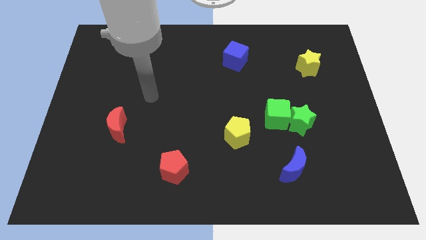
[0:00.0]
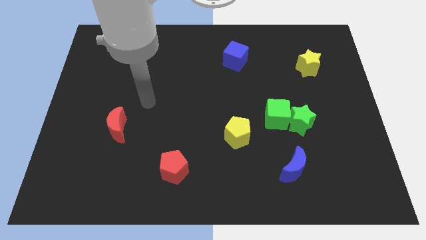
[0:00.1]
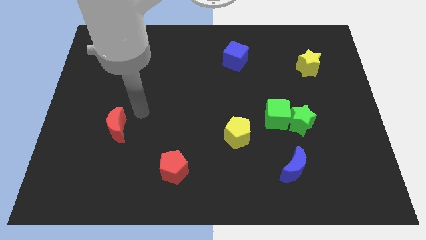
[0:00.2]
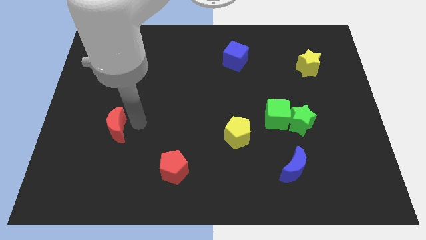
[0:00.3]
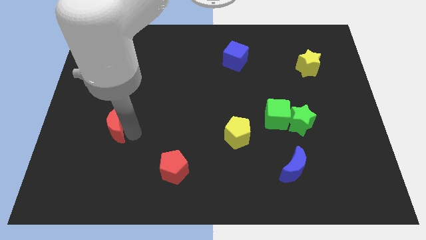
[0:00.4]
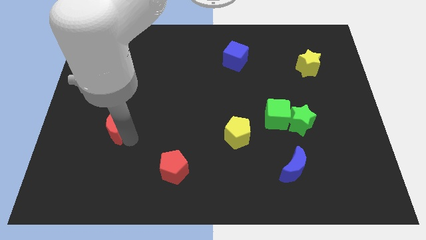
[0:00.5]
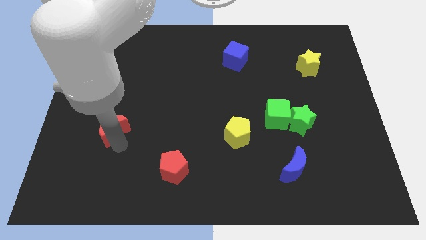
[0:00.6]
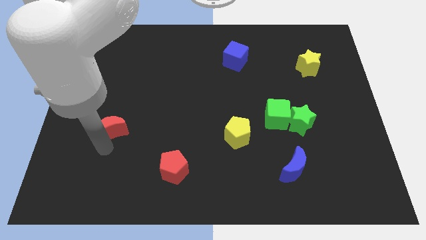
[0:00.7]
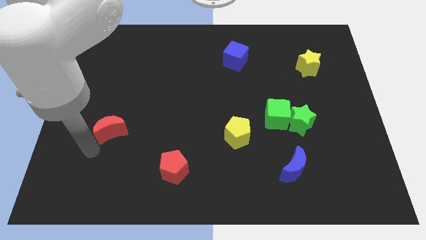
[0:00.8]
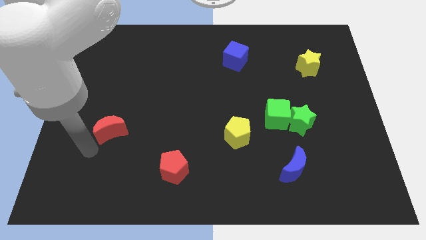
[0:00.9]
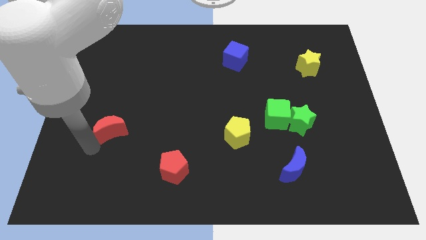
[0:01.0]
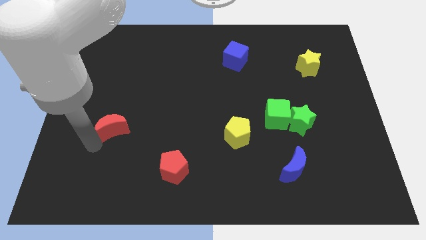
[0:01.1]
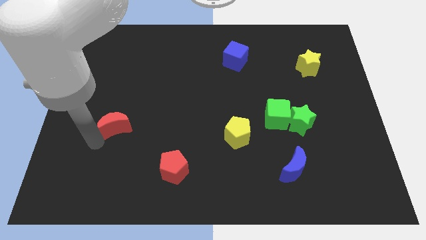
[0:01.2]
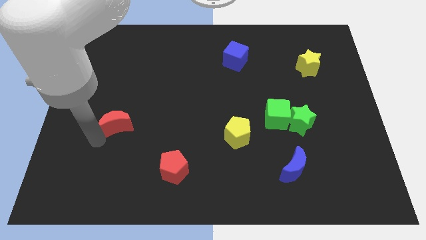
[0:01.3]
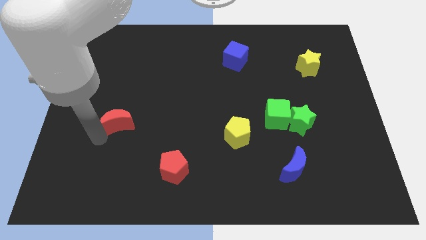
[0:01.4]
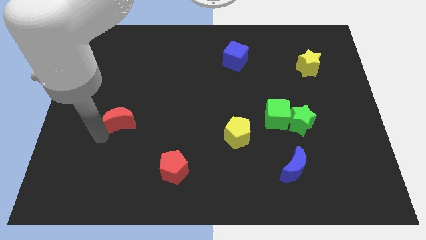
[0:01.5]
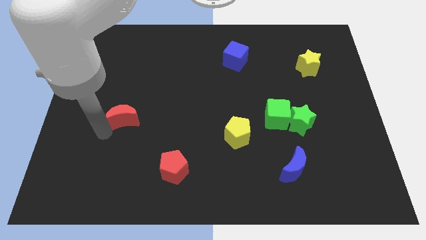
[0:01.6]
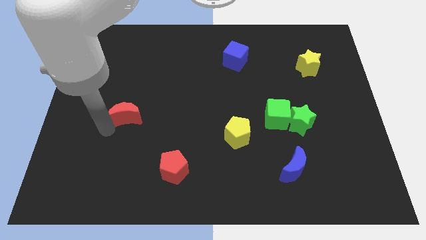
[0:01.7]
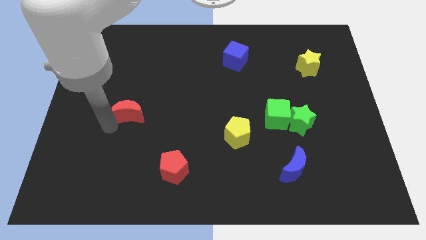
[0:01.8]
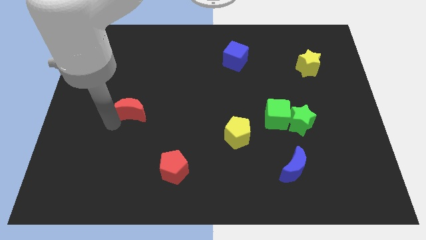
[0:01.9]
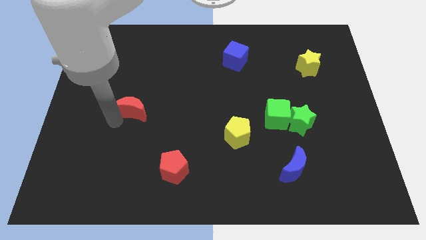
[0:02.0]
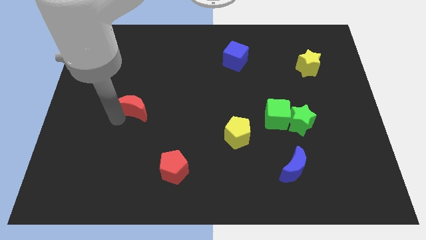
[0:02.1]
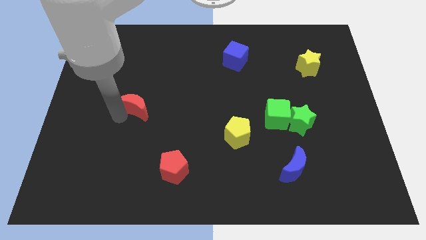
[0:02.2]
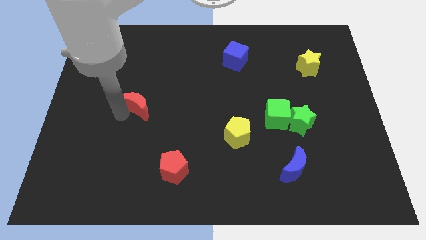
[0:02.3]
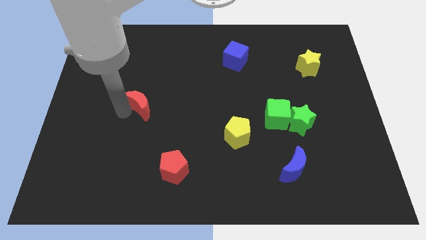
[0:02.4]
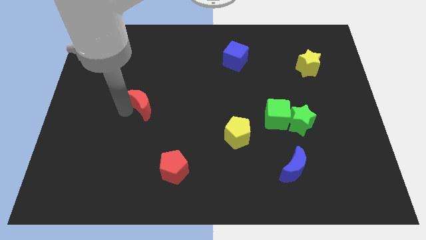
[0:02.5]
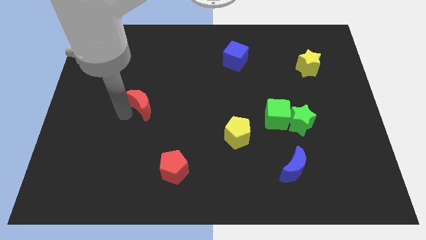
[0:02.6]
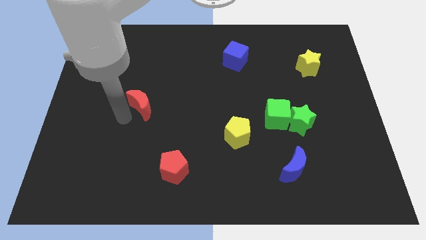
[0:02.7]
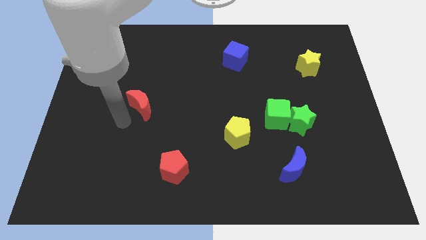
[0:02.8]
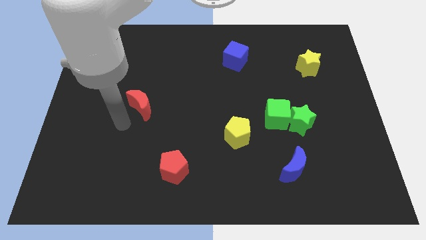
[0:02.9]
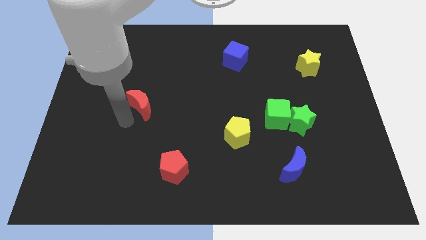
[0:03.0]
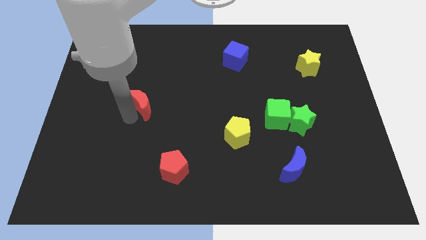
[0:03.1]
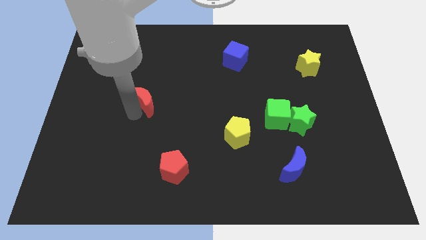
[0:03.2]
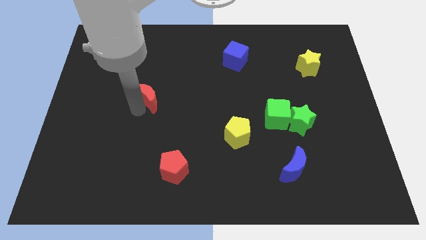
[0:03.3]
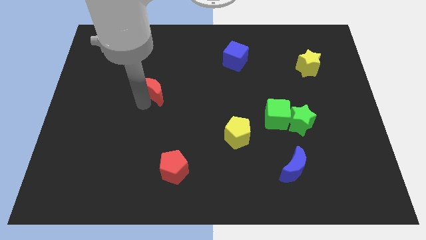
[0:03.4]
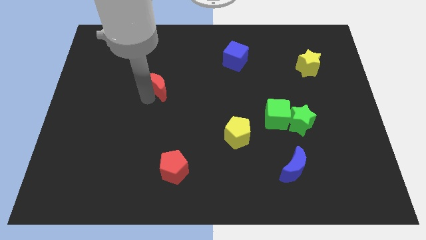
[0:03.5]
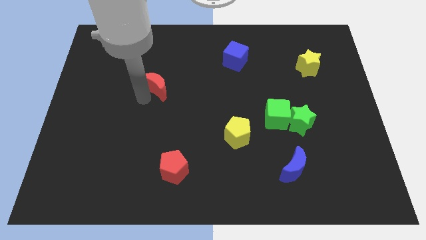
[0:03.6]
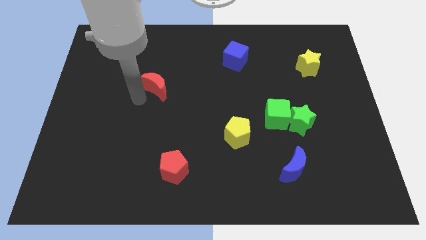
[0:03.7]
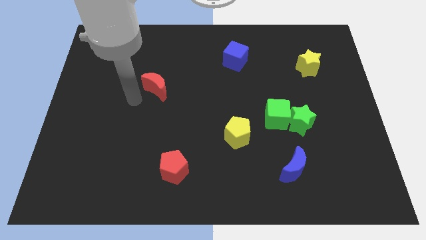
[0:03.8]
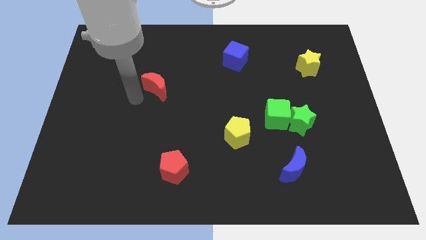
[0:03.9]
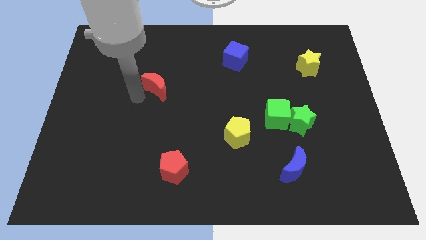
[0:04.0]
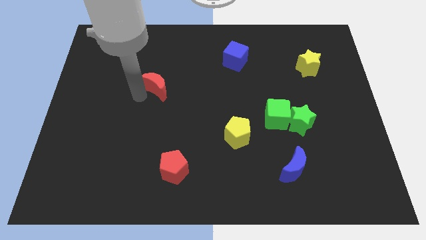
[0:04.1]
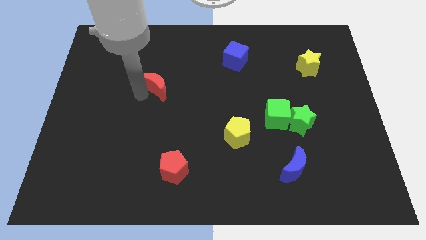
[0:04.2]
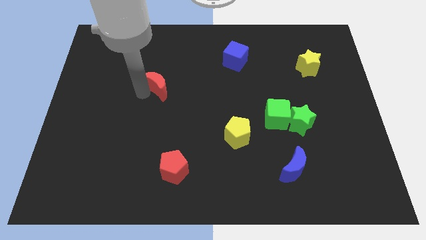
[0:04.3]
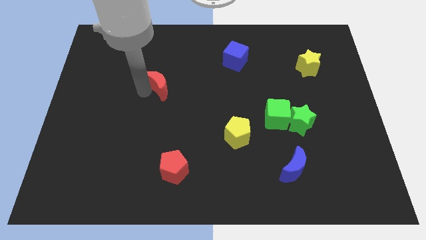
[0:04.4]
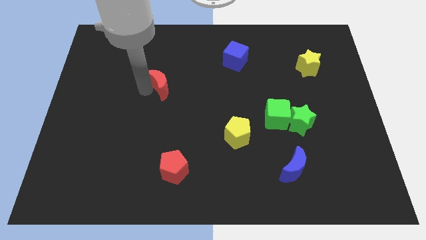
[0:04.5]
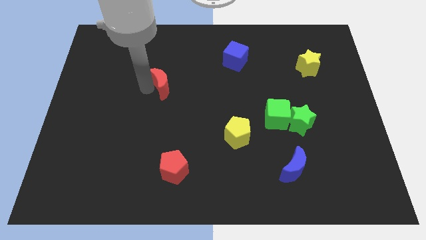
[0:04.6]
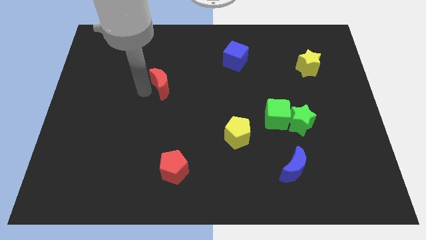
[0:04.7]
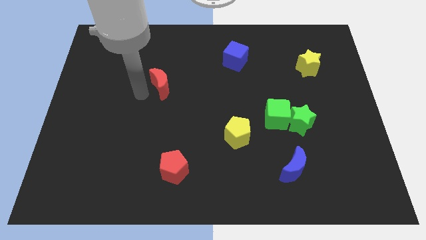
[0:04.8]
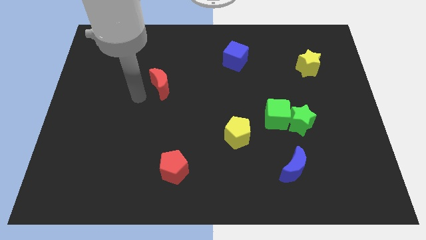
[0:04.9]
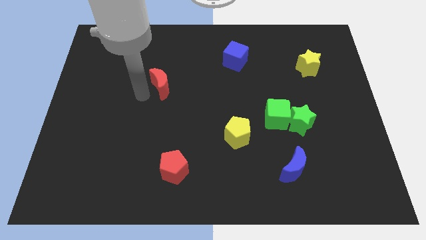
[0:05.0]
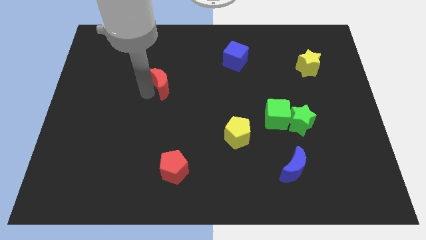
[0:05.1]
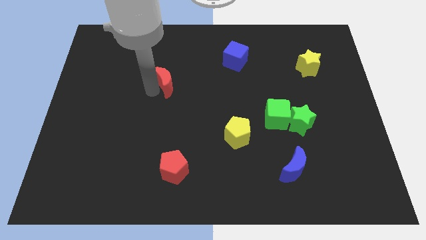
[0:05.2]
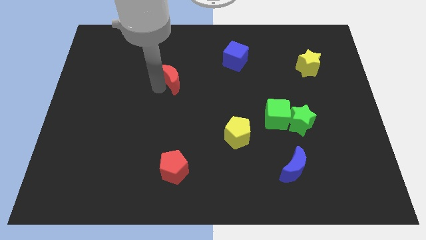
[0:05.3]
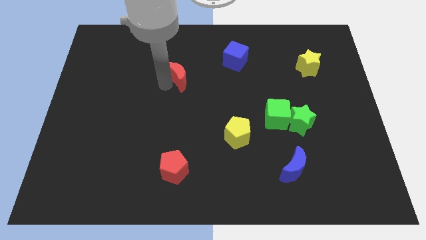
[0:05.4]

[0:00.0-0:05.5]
push the red moon upwards and to the right

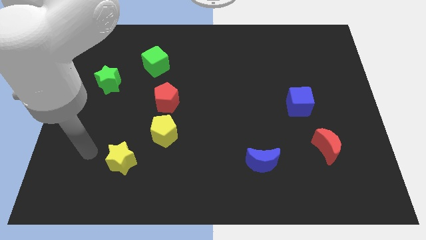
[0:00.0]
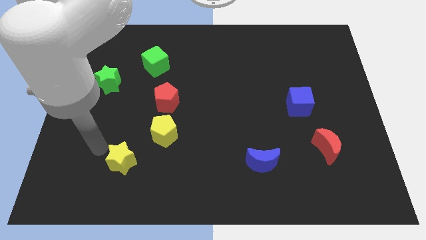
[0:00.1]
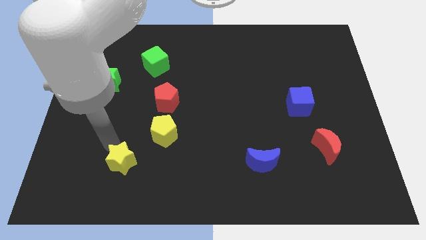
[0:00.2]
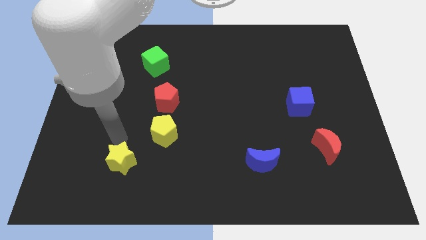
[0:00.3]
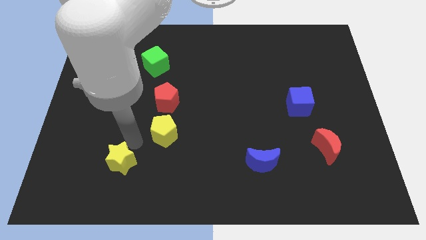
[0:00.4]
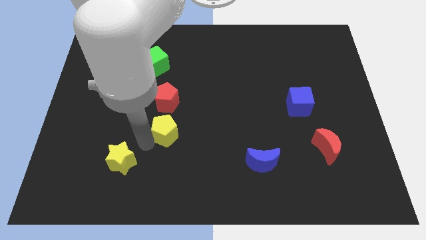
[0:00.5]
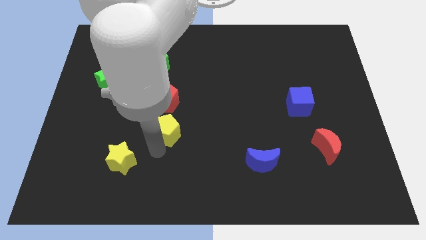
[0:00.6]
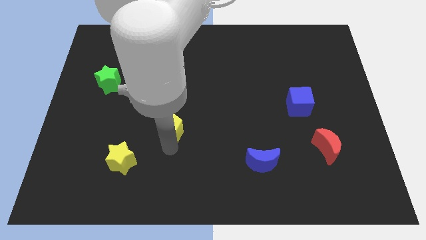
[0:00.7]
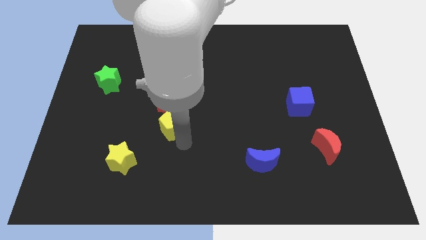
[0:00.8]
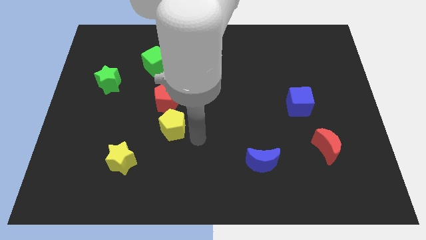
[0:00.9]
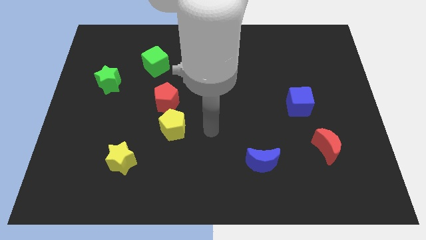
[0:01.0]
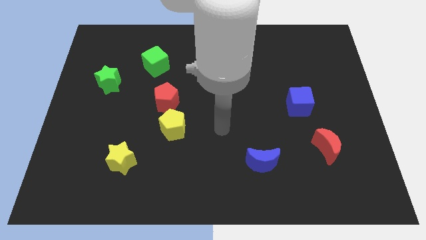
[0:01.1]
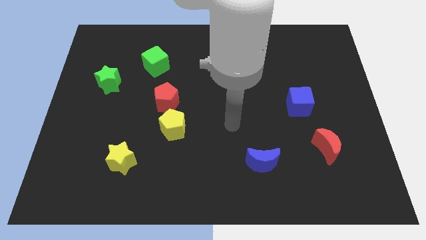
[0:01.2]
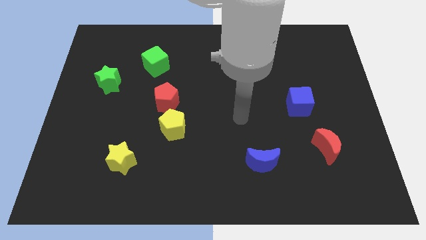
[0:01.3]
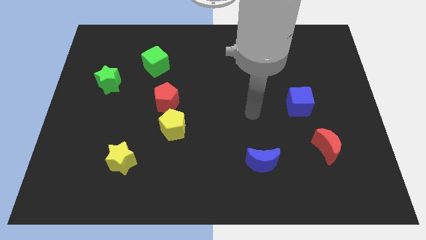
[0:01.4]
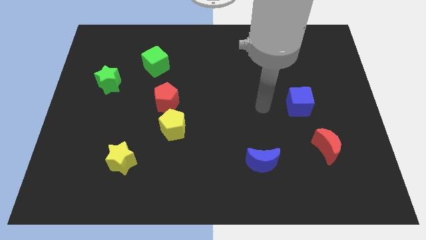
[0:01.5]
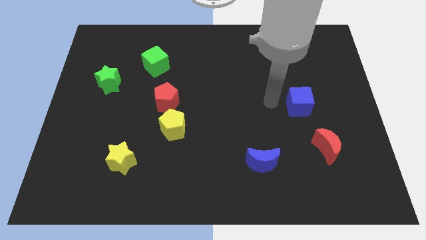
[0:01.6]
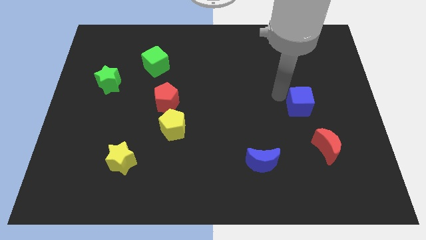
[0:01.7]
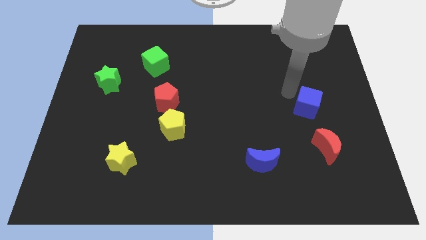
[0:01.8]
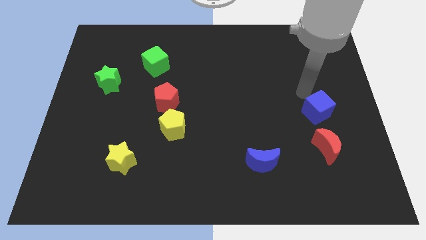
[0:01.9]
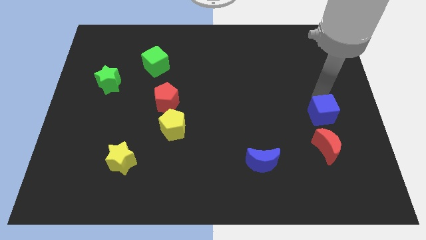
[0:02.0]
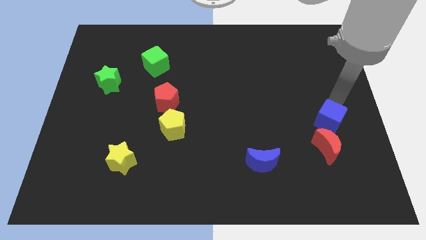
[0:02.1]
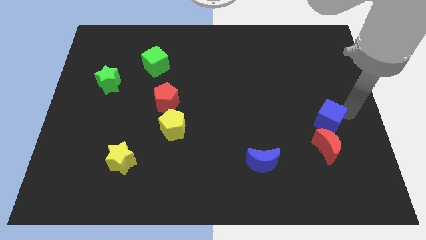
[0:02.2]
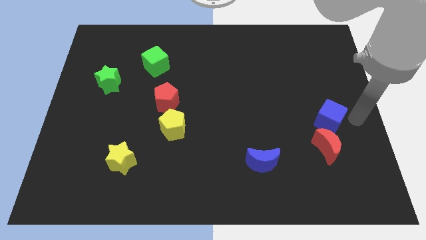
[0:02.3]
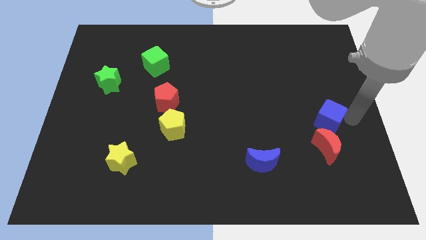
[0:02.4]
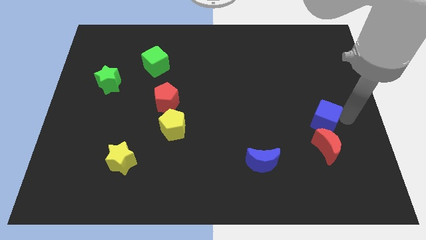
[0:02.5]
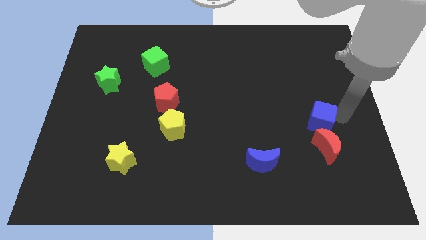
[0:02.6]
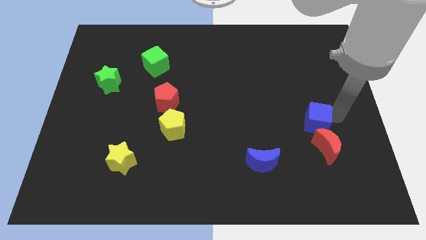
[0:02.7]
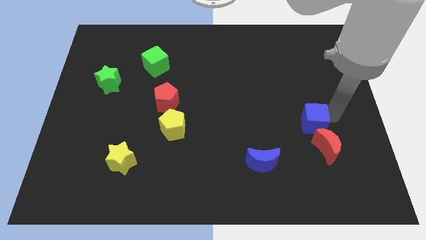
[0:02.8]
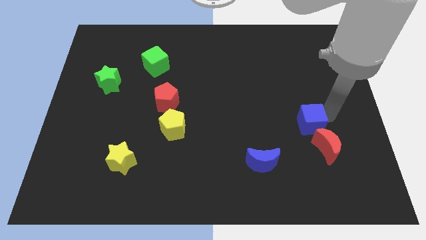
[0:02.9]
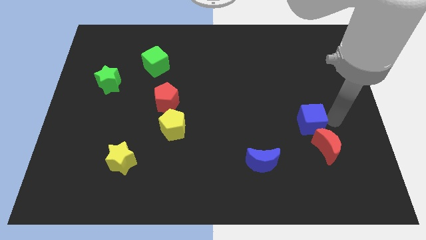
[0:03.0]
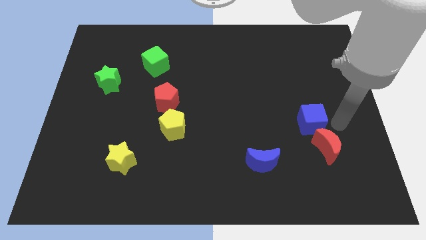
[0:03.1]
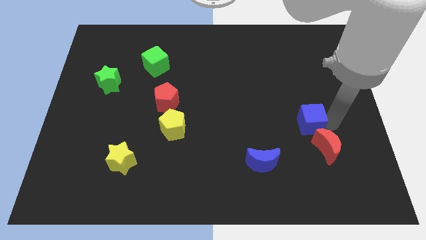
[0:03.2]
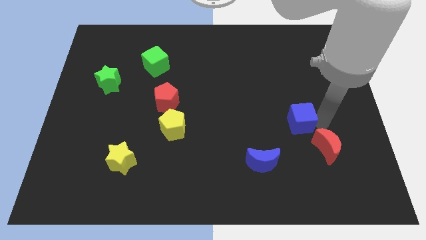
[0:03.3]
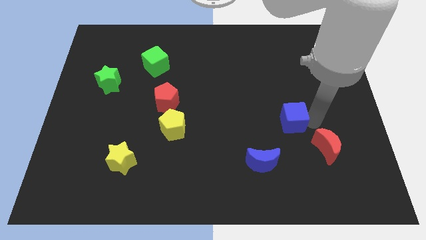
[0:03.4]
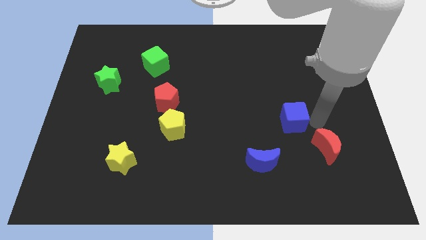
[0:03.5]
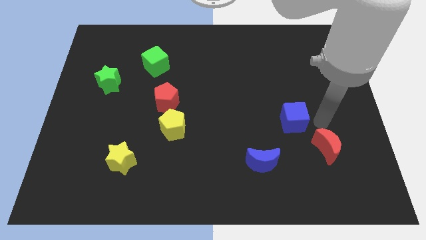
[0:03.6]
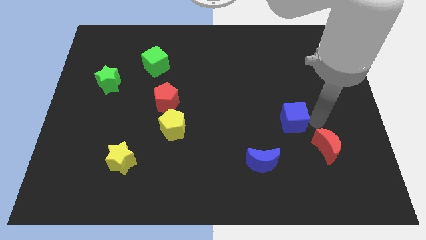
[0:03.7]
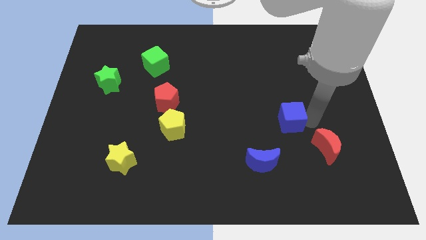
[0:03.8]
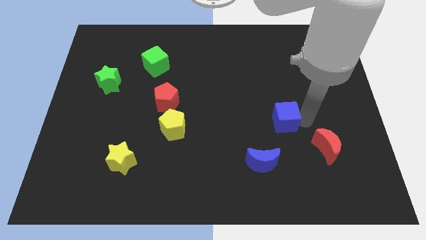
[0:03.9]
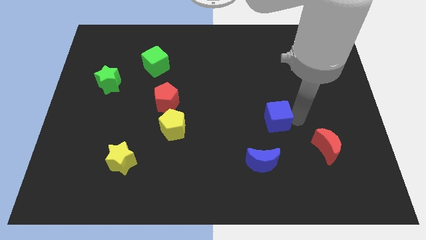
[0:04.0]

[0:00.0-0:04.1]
slightly move the blue cube down and then to the left
